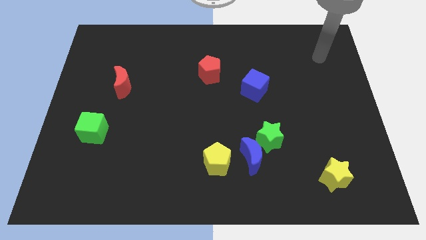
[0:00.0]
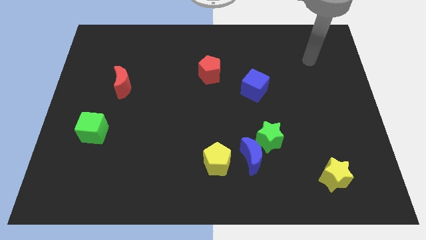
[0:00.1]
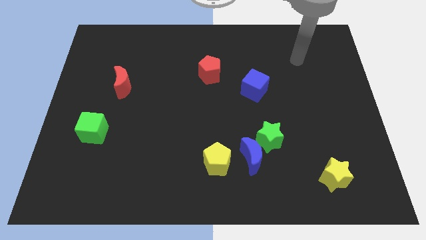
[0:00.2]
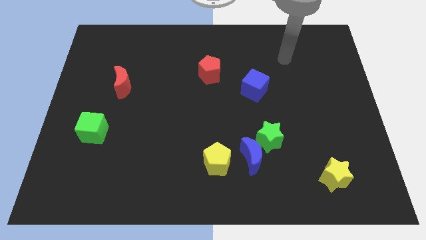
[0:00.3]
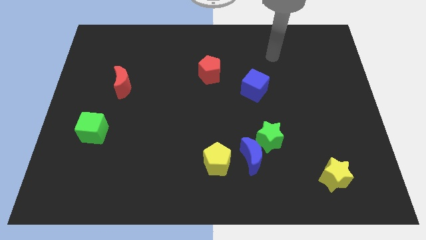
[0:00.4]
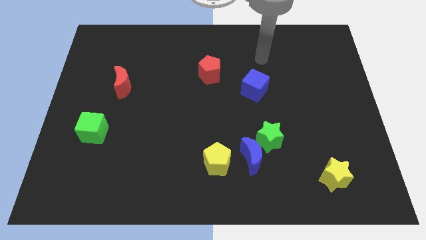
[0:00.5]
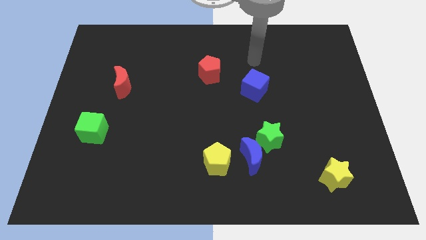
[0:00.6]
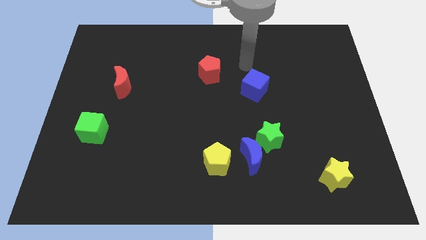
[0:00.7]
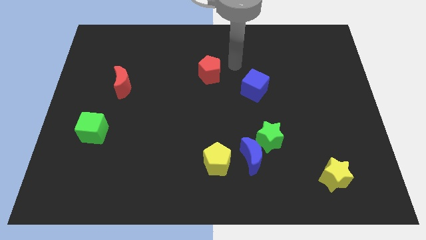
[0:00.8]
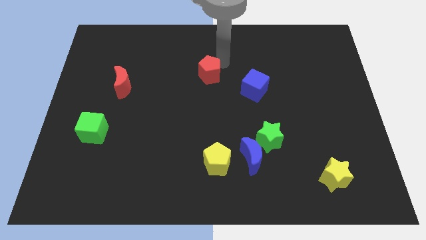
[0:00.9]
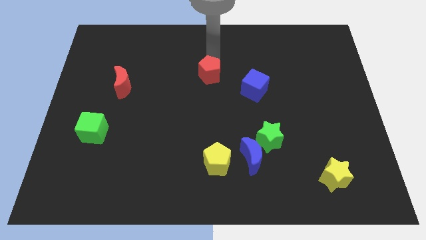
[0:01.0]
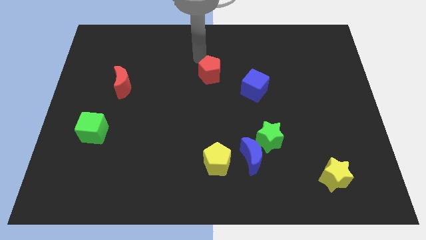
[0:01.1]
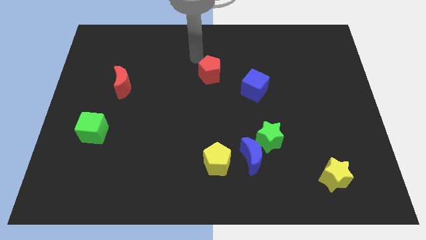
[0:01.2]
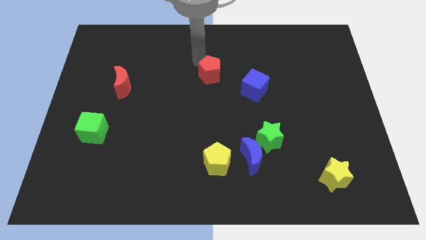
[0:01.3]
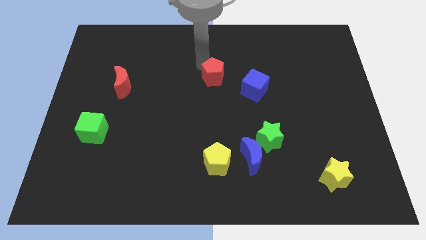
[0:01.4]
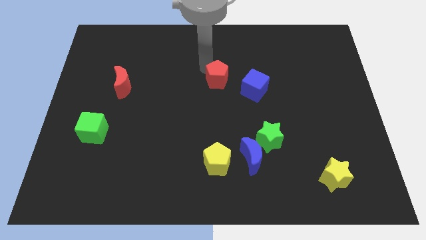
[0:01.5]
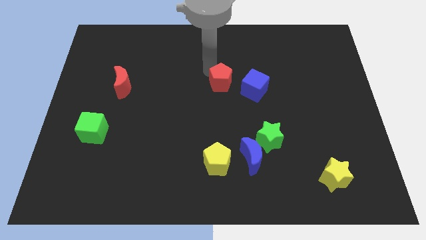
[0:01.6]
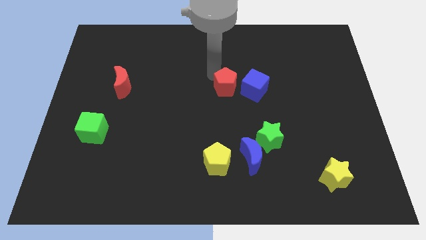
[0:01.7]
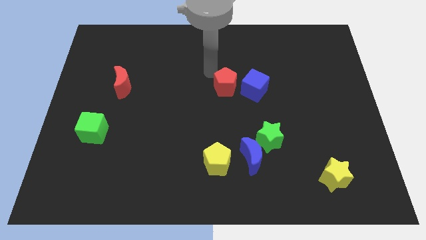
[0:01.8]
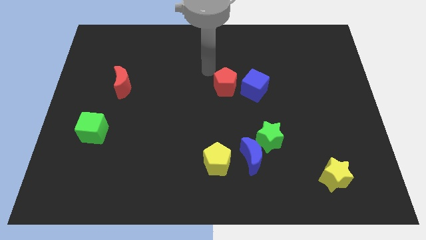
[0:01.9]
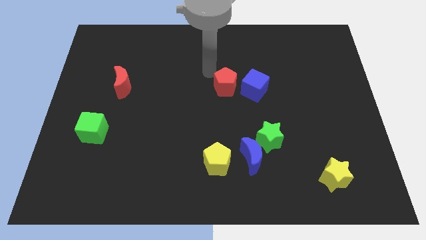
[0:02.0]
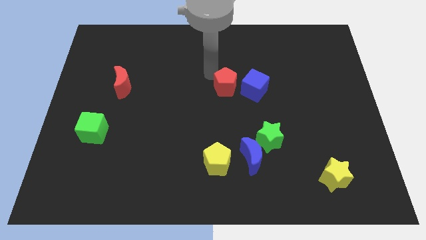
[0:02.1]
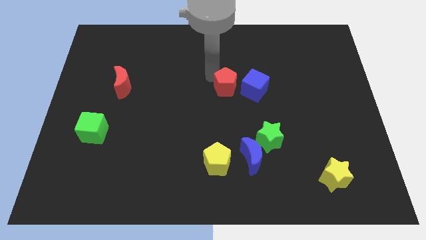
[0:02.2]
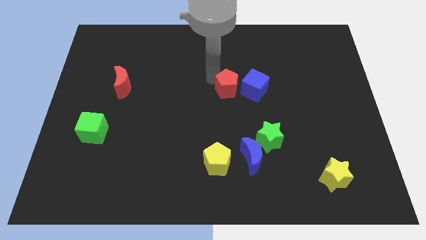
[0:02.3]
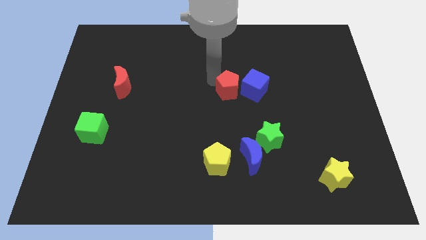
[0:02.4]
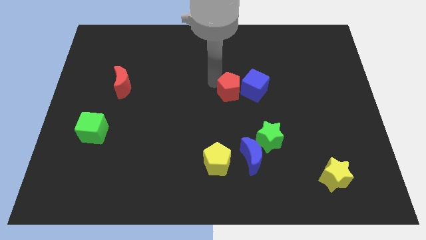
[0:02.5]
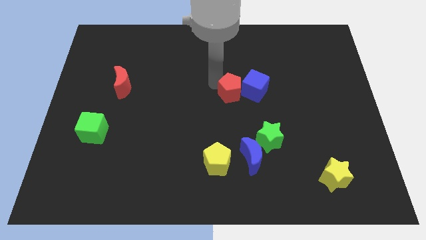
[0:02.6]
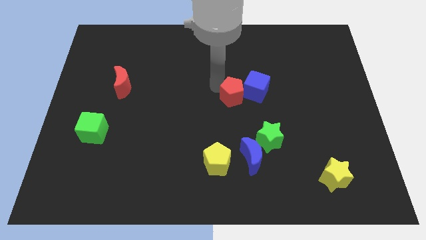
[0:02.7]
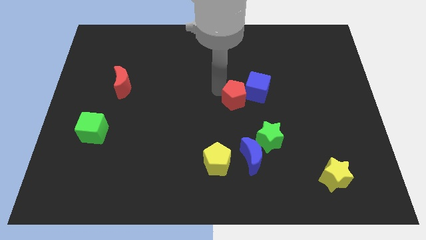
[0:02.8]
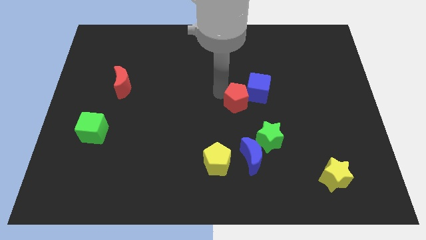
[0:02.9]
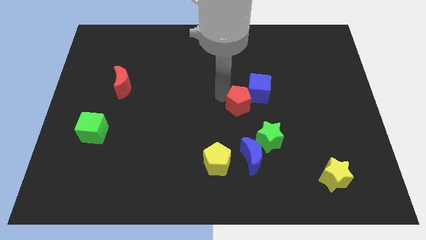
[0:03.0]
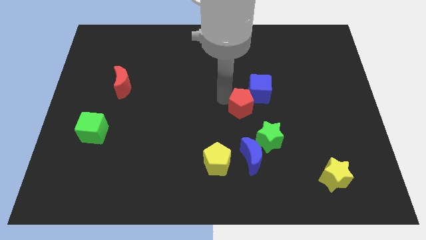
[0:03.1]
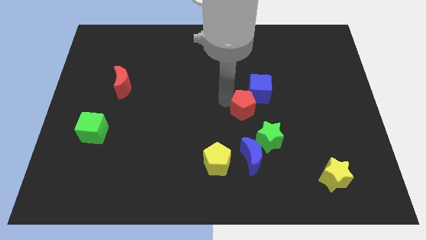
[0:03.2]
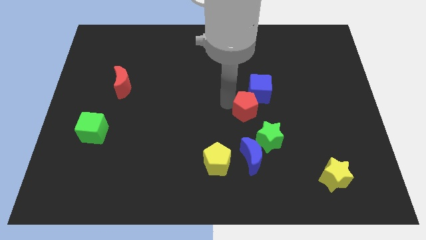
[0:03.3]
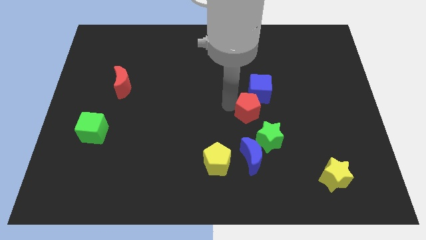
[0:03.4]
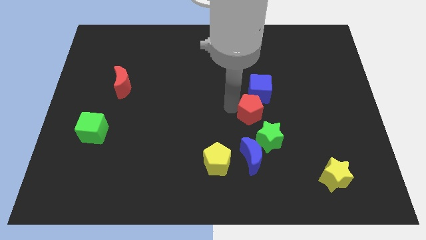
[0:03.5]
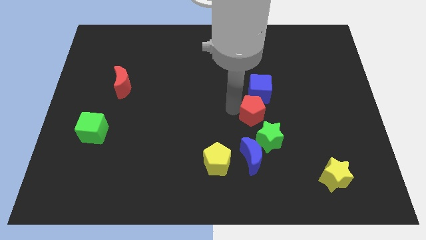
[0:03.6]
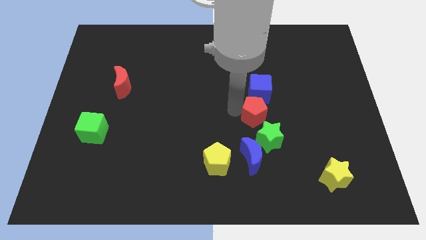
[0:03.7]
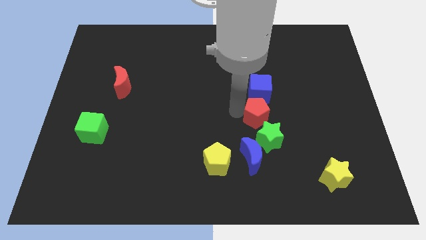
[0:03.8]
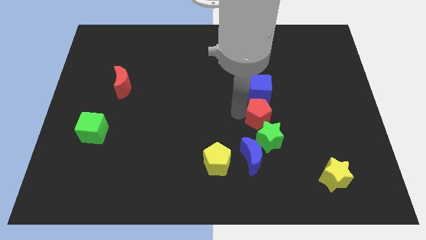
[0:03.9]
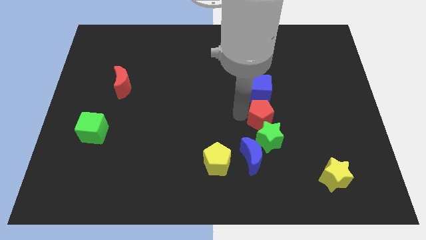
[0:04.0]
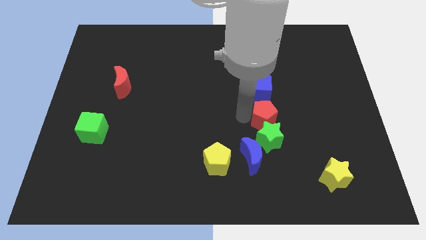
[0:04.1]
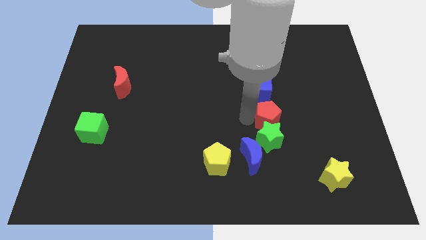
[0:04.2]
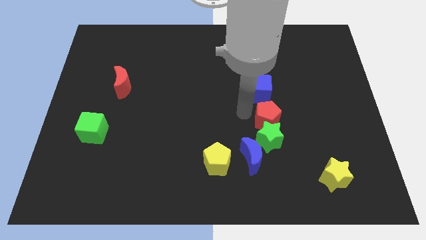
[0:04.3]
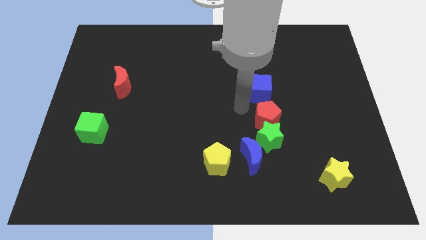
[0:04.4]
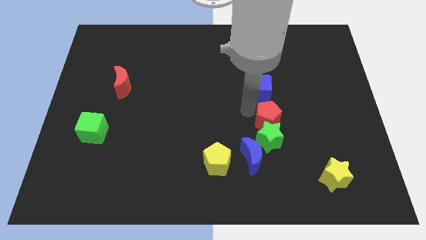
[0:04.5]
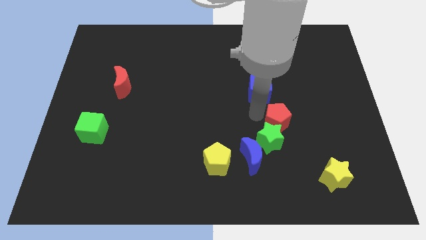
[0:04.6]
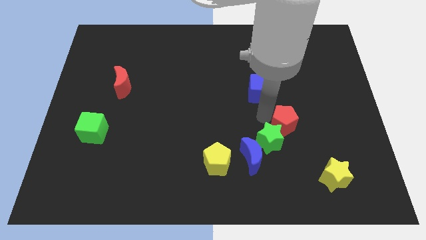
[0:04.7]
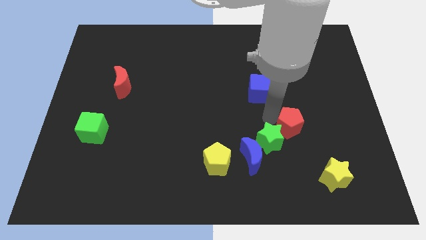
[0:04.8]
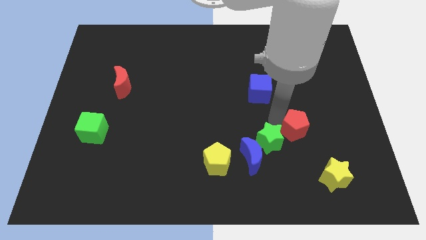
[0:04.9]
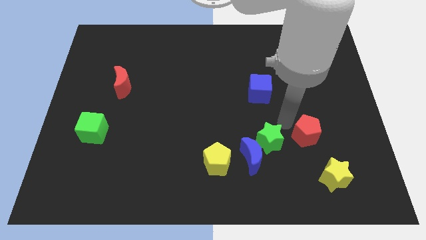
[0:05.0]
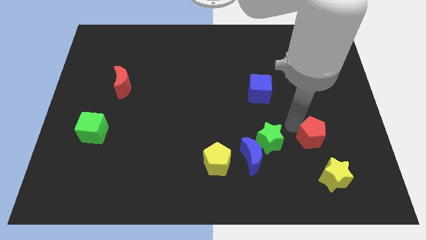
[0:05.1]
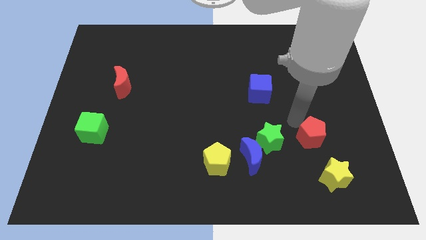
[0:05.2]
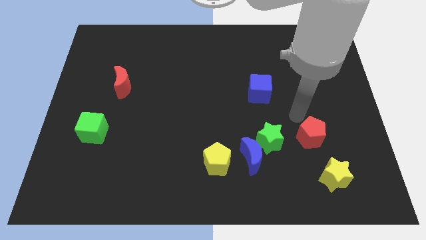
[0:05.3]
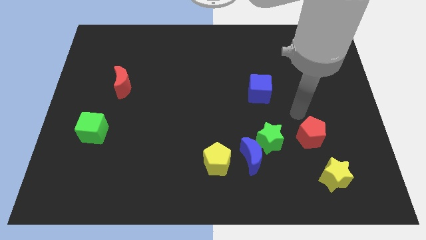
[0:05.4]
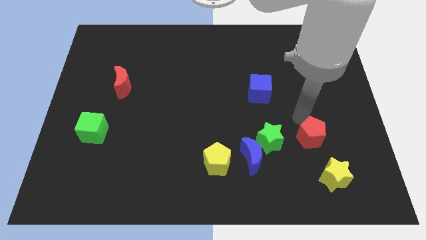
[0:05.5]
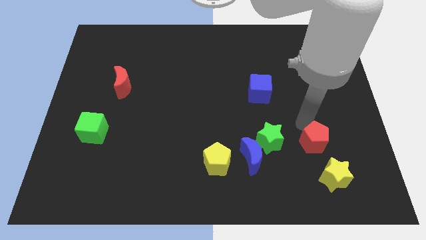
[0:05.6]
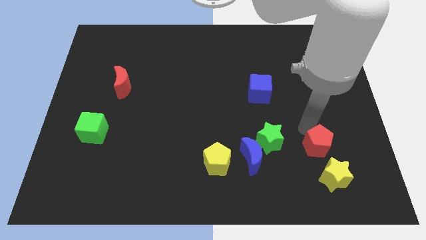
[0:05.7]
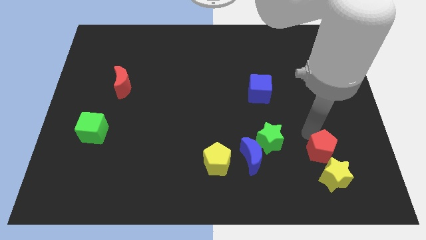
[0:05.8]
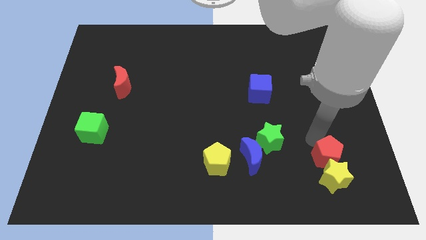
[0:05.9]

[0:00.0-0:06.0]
slide the red pentagon to the yellow star

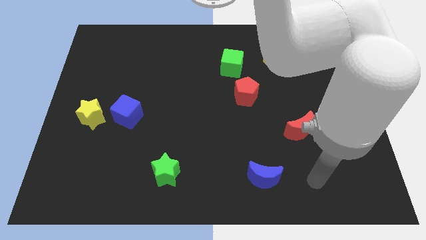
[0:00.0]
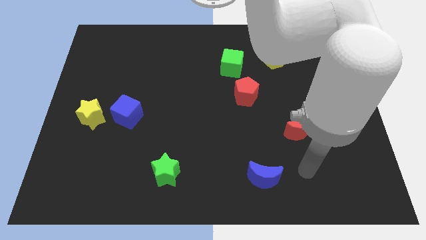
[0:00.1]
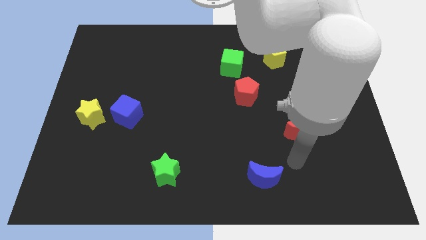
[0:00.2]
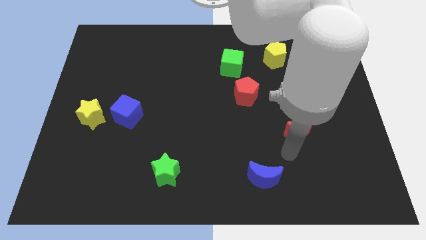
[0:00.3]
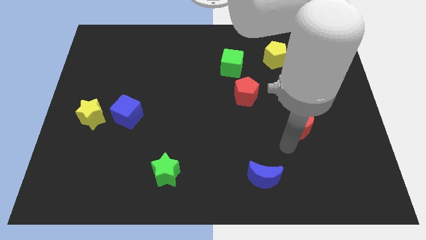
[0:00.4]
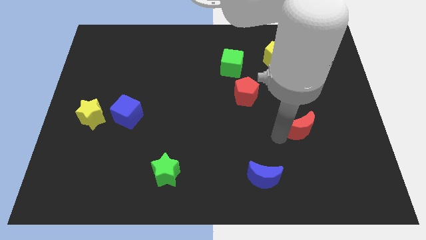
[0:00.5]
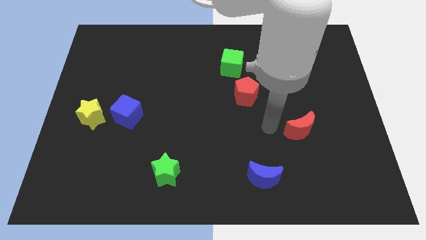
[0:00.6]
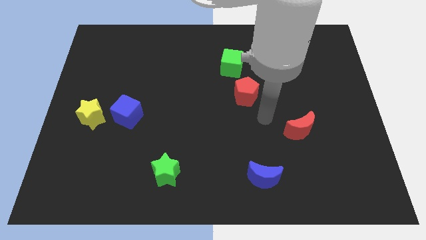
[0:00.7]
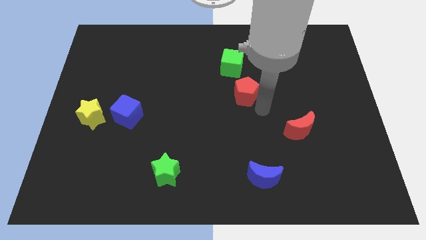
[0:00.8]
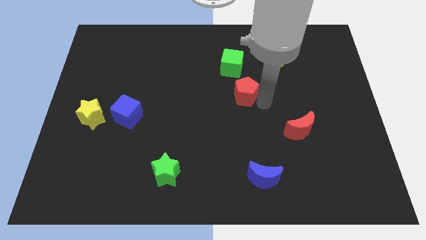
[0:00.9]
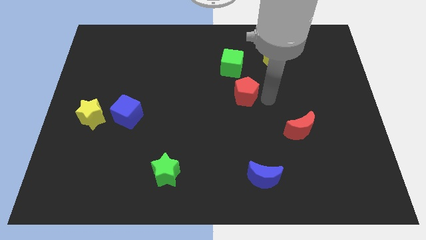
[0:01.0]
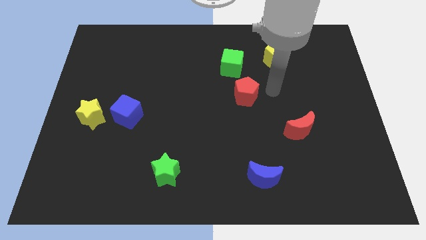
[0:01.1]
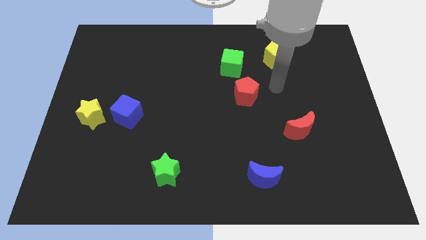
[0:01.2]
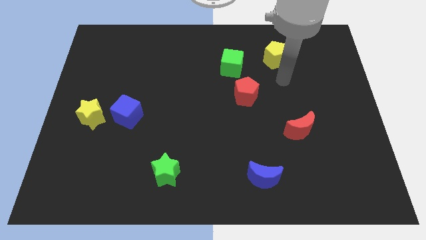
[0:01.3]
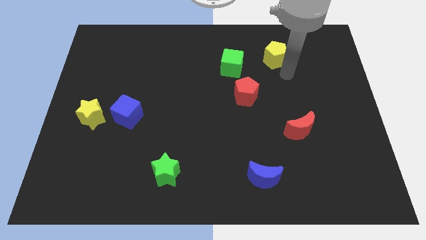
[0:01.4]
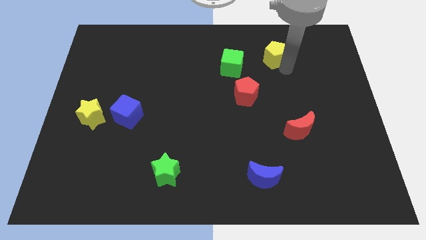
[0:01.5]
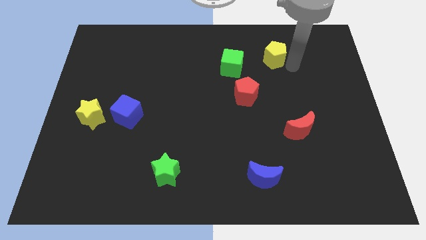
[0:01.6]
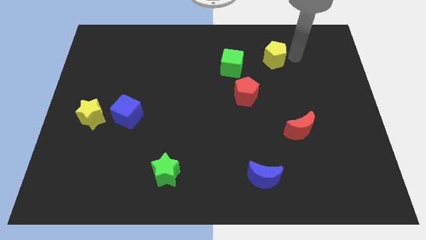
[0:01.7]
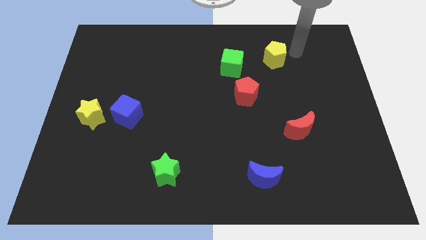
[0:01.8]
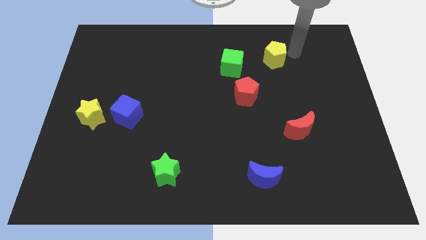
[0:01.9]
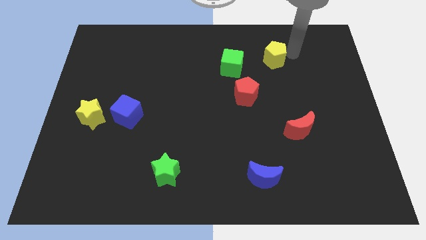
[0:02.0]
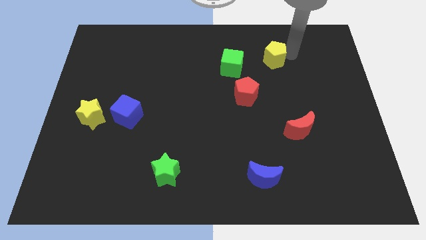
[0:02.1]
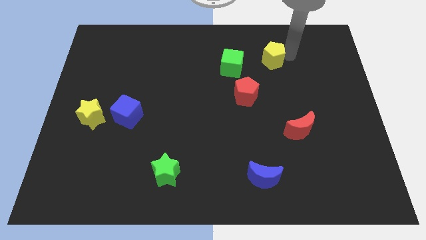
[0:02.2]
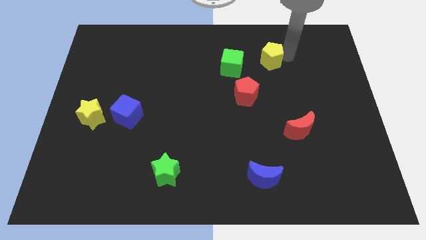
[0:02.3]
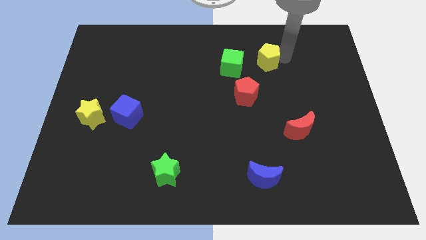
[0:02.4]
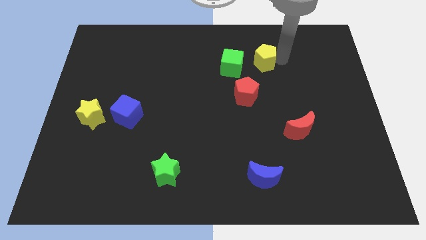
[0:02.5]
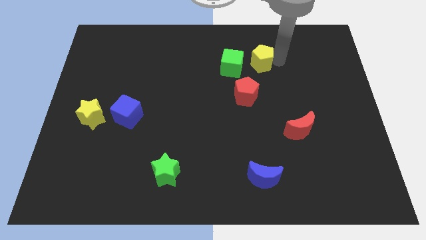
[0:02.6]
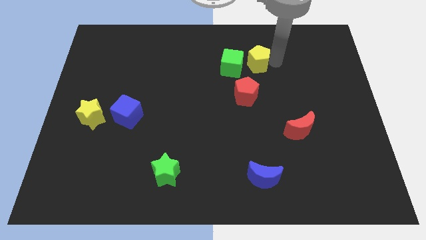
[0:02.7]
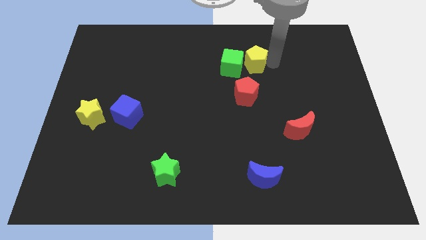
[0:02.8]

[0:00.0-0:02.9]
push the yellow pentagon close to the green cube
